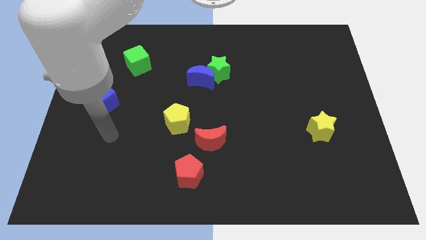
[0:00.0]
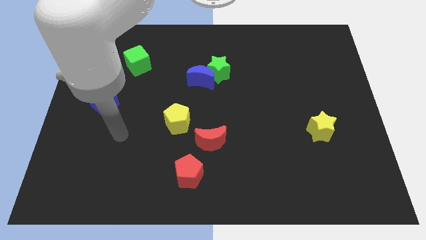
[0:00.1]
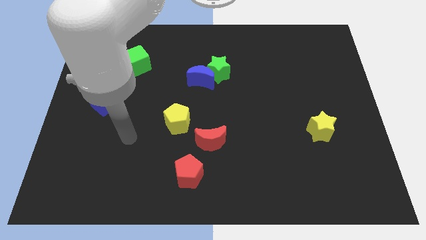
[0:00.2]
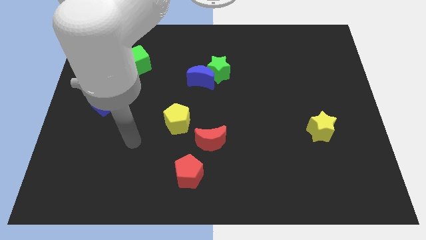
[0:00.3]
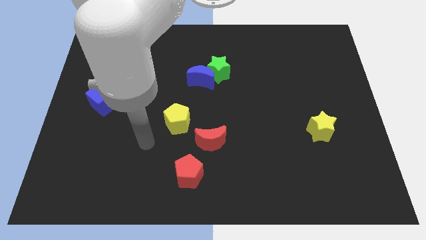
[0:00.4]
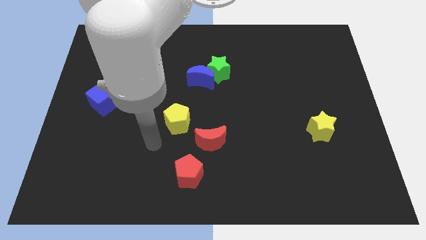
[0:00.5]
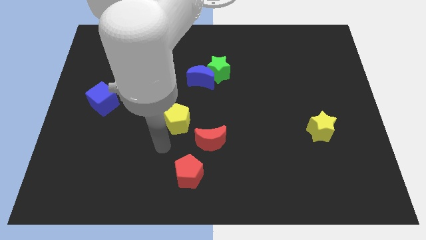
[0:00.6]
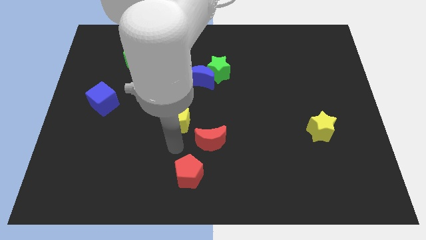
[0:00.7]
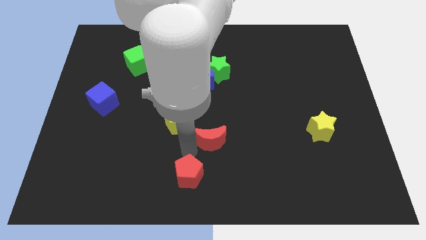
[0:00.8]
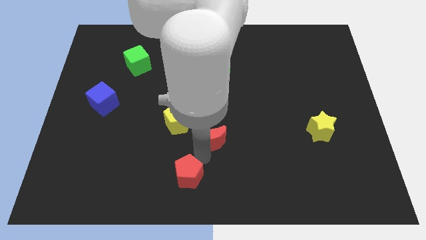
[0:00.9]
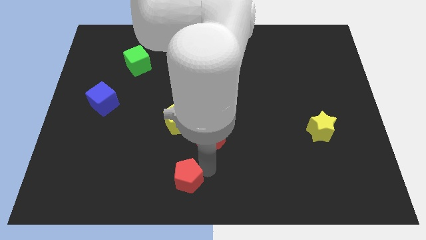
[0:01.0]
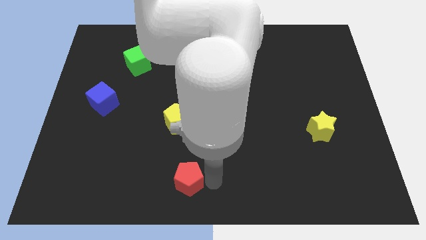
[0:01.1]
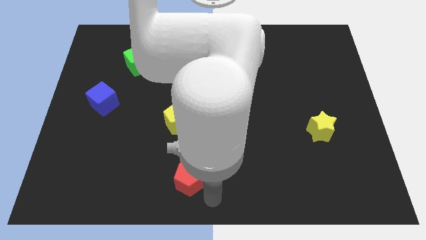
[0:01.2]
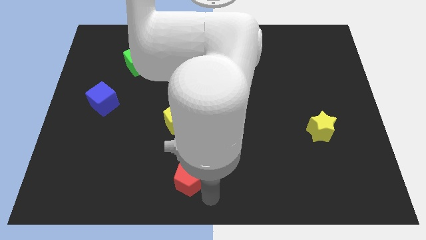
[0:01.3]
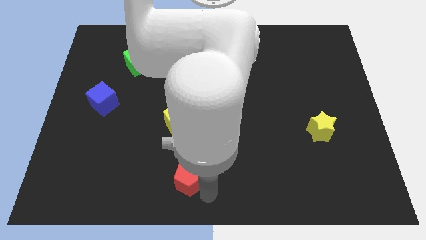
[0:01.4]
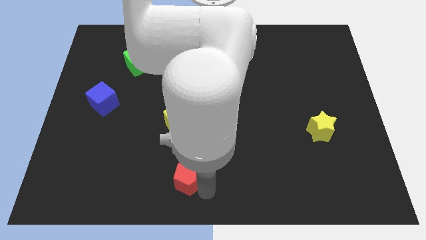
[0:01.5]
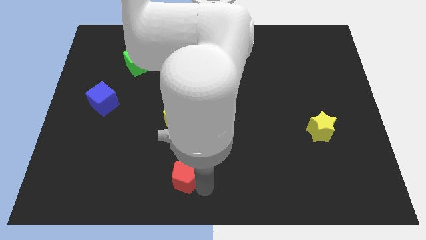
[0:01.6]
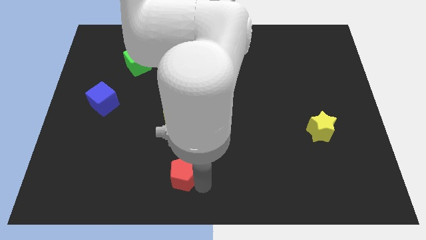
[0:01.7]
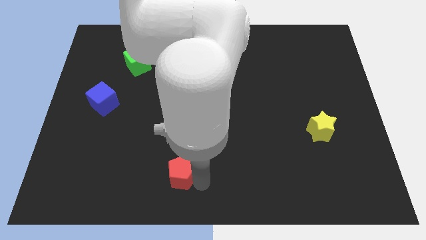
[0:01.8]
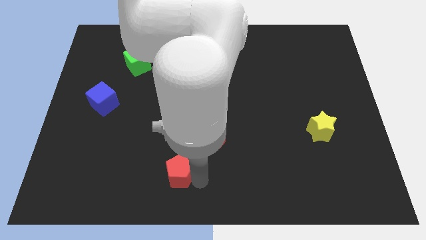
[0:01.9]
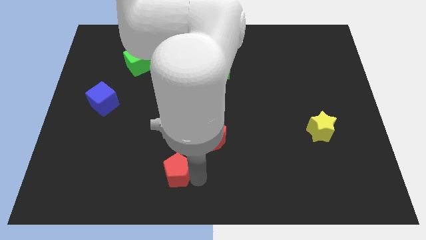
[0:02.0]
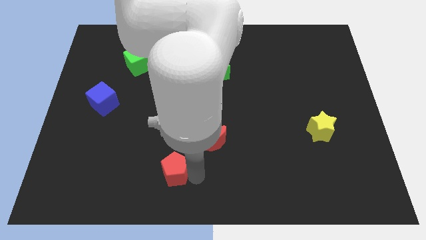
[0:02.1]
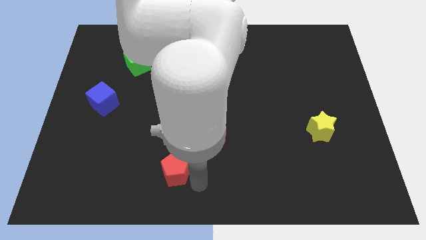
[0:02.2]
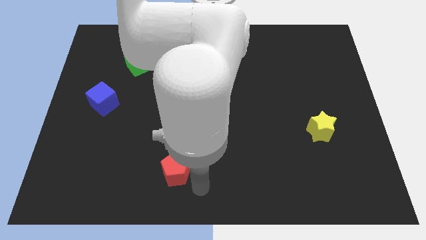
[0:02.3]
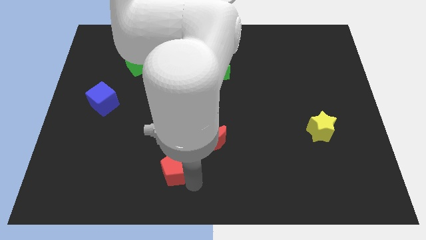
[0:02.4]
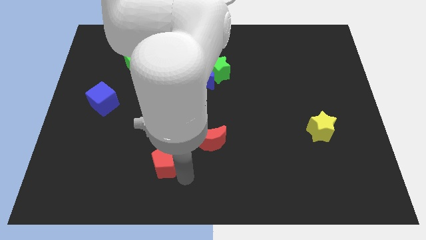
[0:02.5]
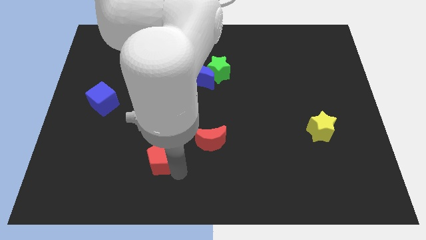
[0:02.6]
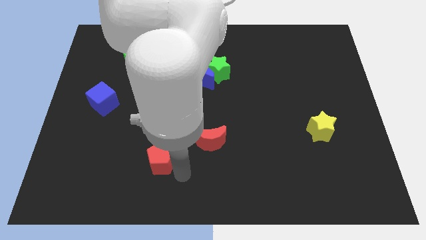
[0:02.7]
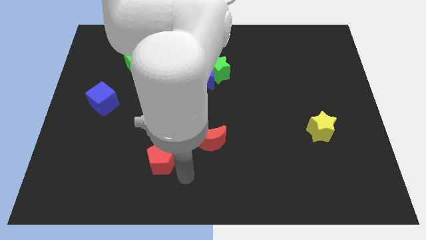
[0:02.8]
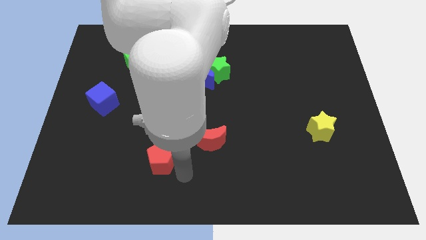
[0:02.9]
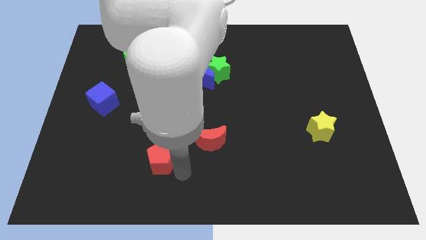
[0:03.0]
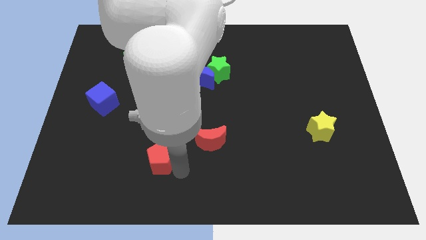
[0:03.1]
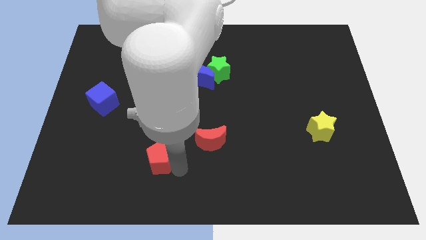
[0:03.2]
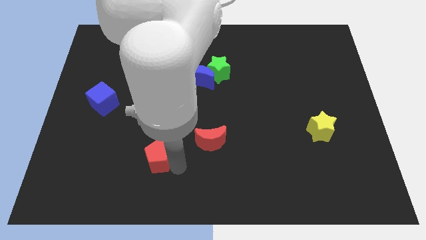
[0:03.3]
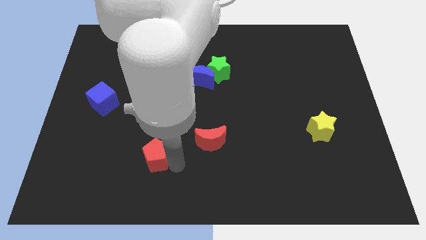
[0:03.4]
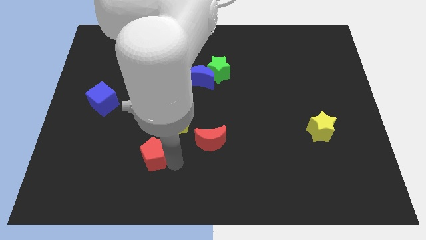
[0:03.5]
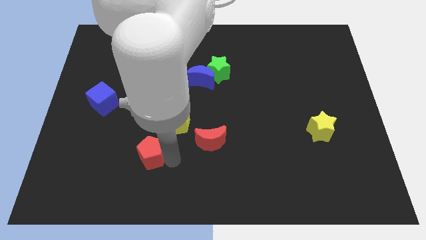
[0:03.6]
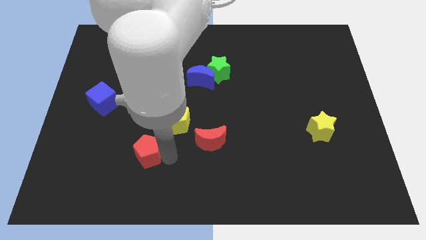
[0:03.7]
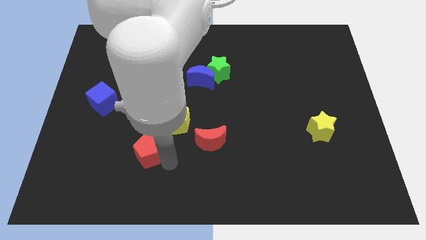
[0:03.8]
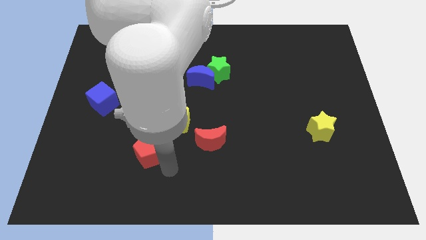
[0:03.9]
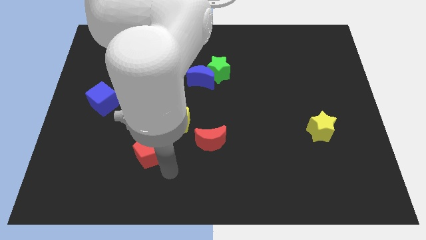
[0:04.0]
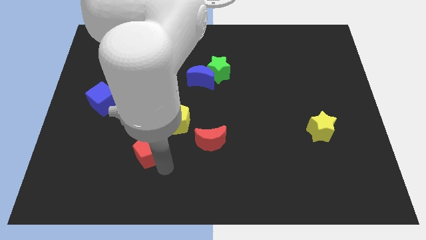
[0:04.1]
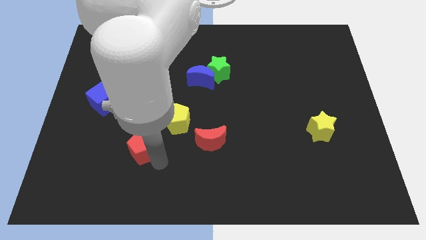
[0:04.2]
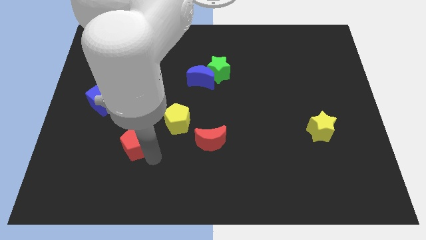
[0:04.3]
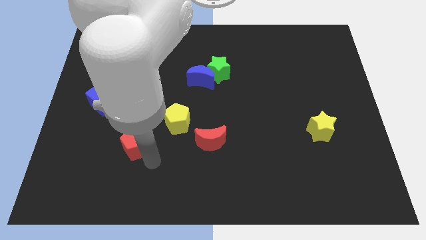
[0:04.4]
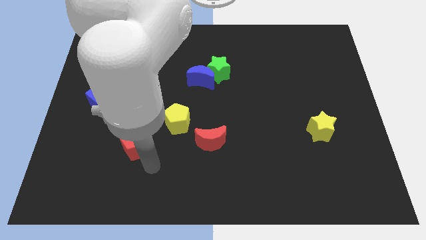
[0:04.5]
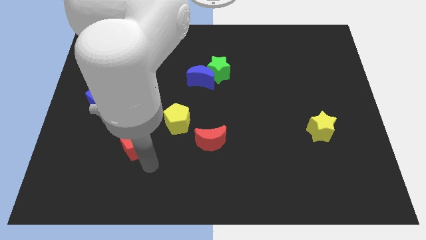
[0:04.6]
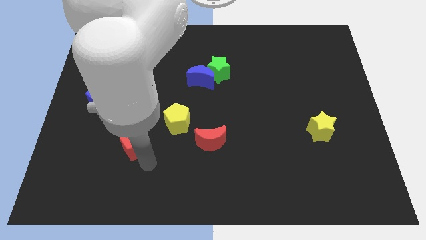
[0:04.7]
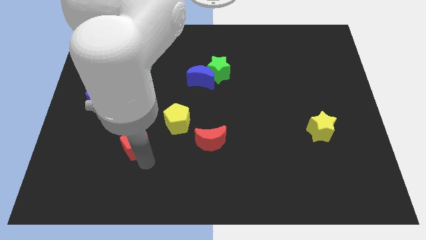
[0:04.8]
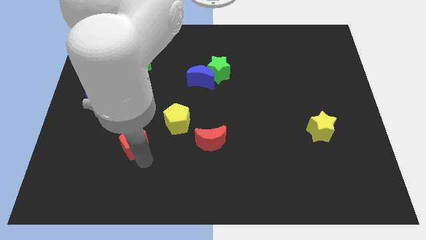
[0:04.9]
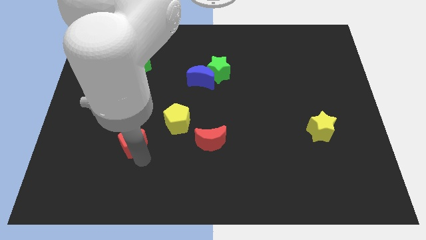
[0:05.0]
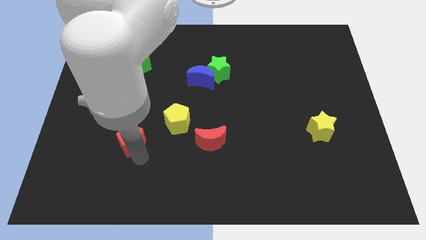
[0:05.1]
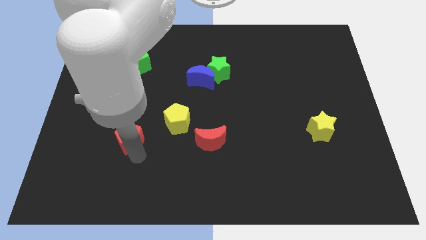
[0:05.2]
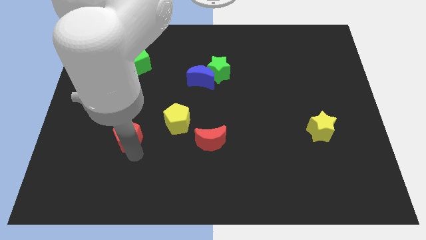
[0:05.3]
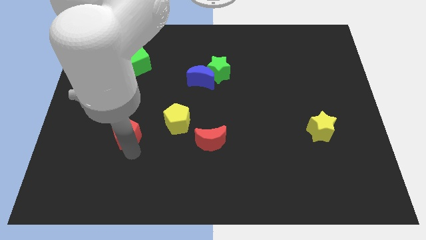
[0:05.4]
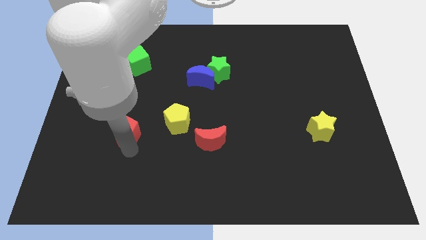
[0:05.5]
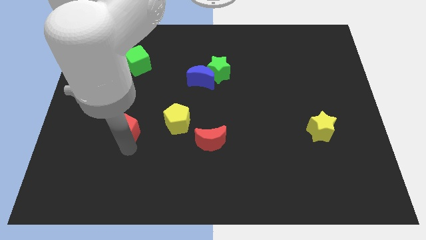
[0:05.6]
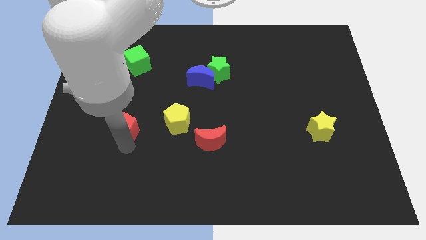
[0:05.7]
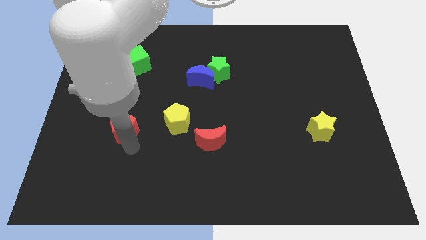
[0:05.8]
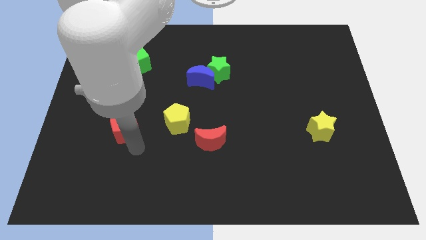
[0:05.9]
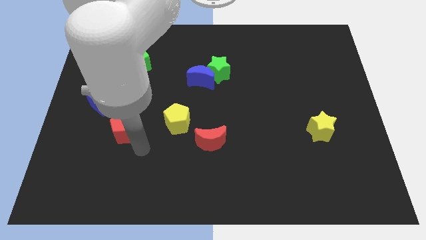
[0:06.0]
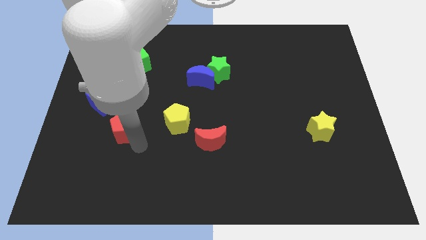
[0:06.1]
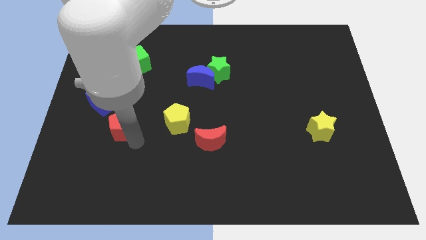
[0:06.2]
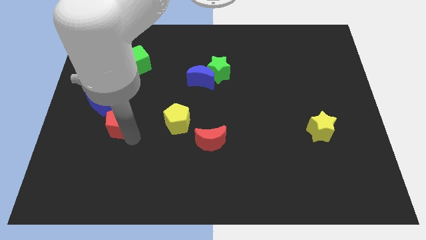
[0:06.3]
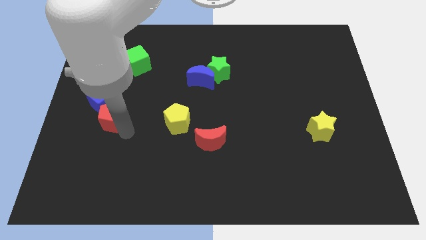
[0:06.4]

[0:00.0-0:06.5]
put the red pentagon close to the blue cube

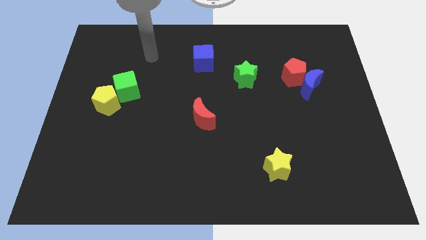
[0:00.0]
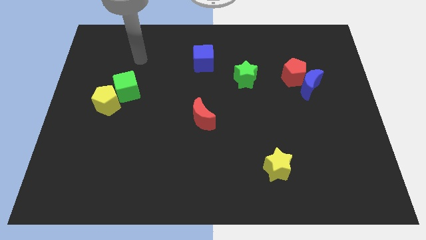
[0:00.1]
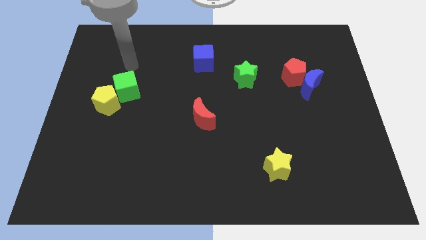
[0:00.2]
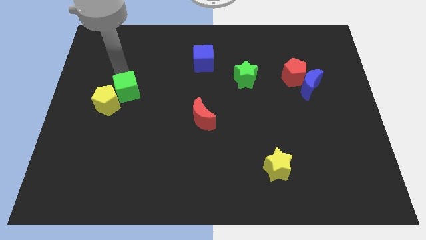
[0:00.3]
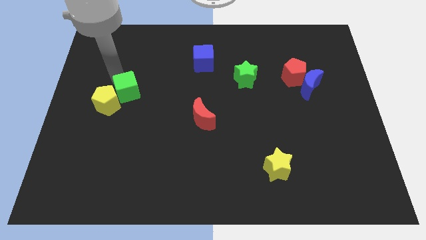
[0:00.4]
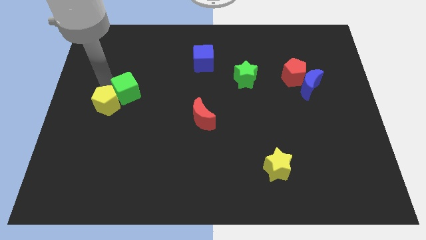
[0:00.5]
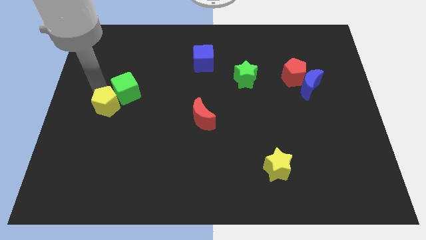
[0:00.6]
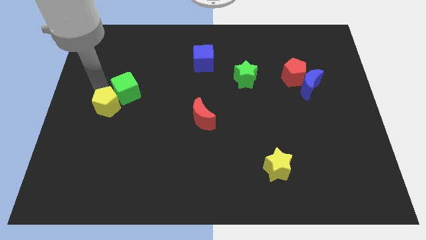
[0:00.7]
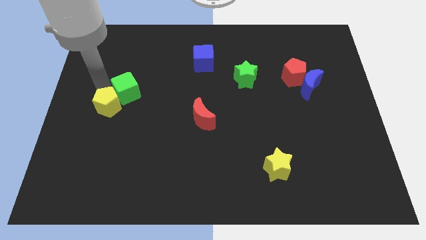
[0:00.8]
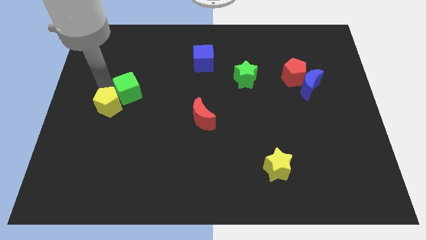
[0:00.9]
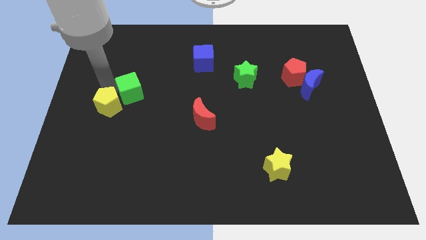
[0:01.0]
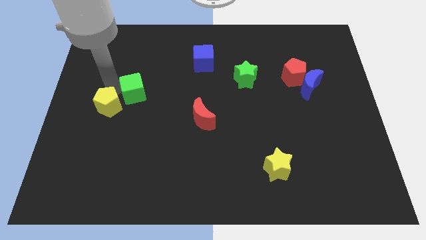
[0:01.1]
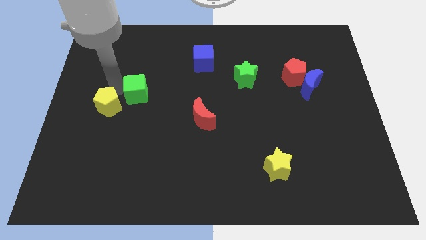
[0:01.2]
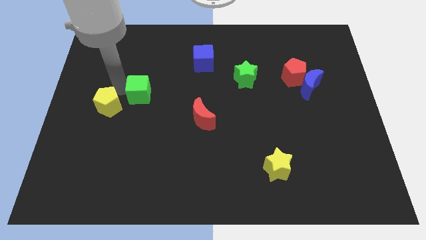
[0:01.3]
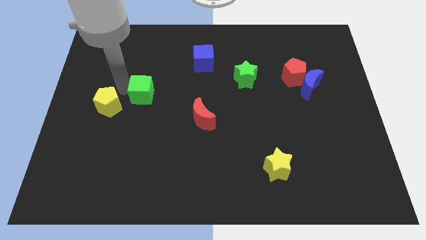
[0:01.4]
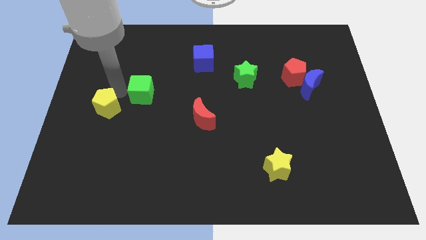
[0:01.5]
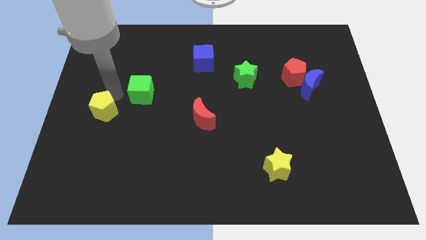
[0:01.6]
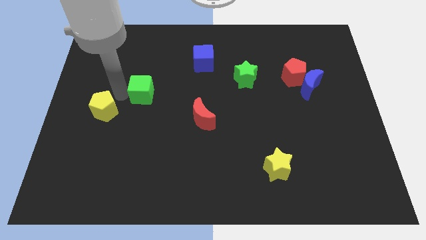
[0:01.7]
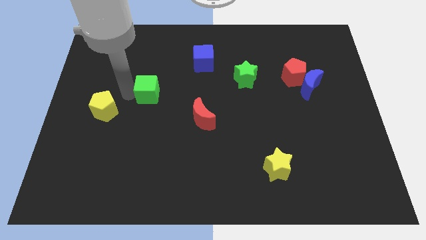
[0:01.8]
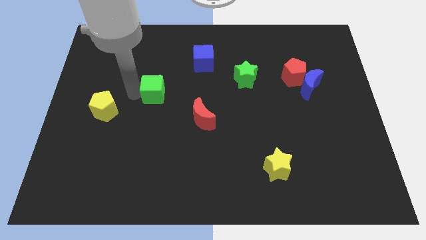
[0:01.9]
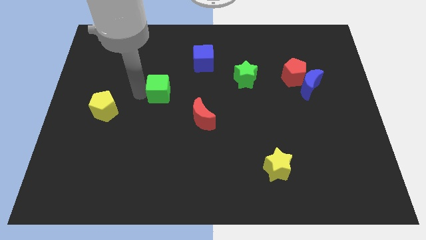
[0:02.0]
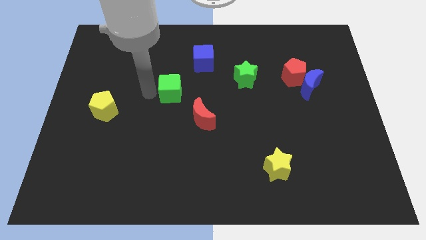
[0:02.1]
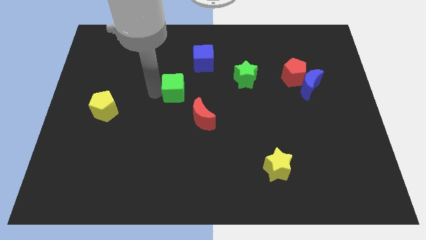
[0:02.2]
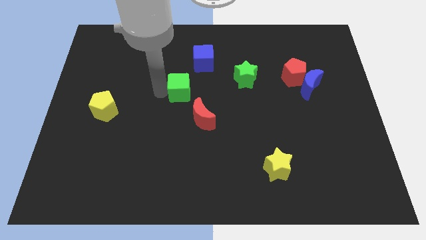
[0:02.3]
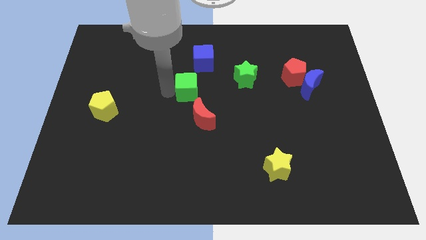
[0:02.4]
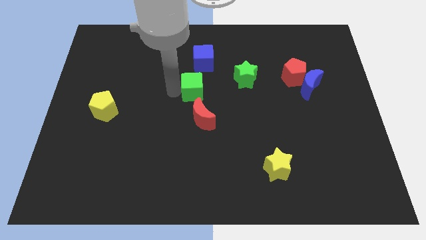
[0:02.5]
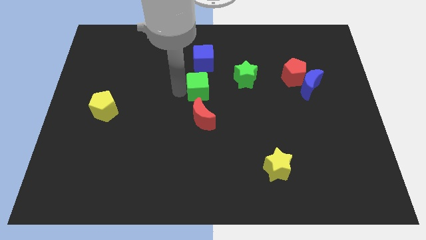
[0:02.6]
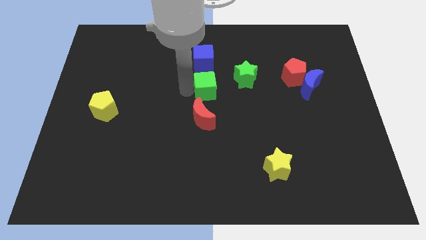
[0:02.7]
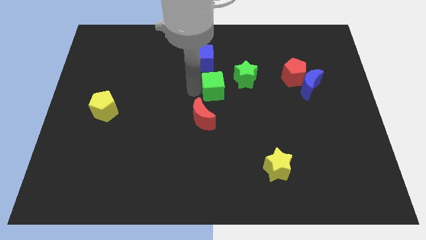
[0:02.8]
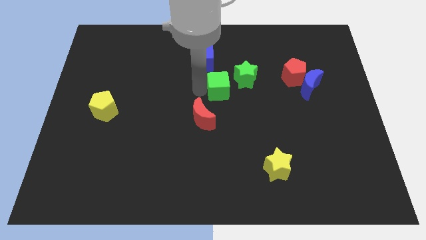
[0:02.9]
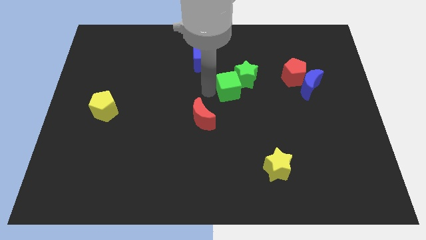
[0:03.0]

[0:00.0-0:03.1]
slide the green cube close to the green star
